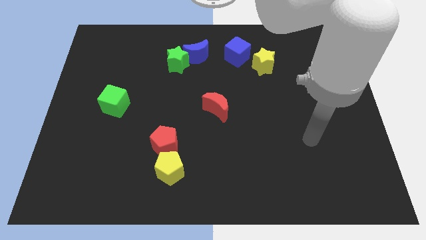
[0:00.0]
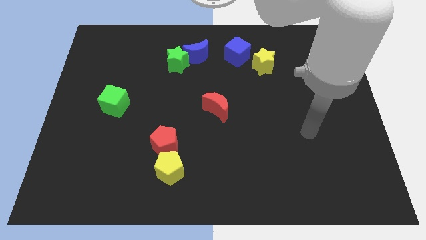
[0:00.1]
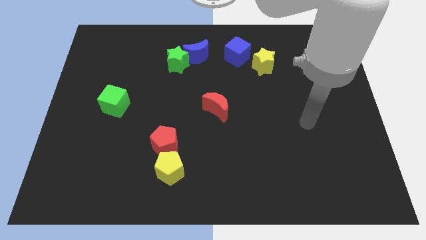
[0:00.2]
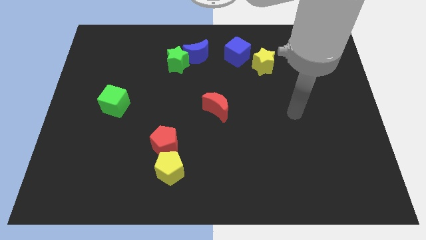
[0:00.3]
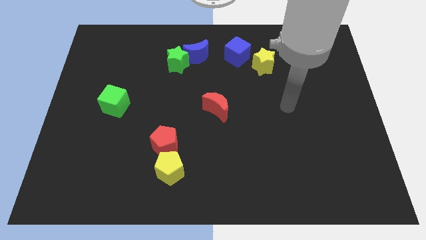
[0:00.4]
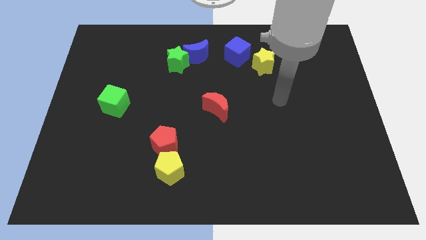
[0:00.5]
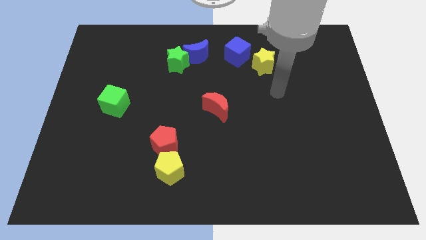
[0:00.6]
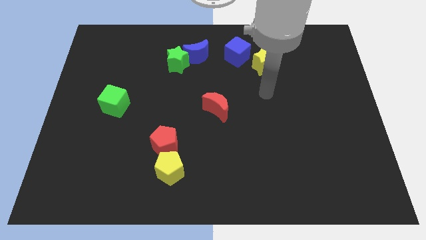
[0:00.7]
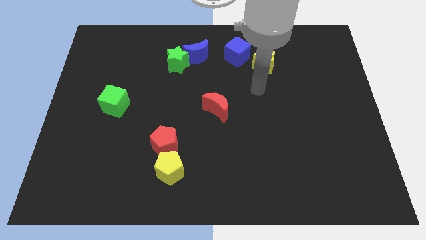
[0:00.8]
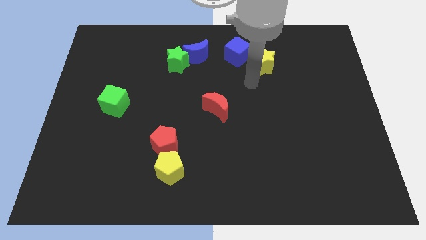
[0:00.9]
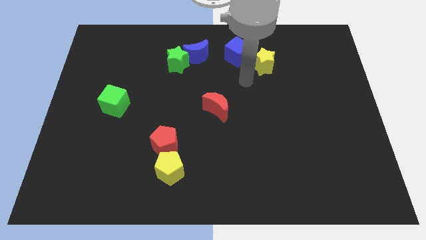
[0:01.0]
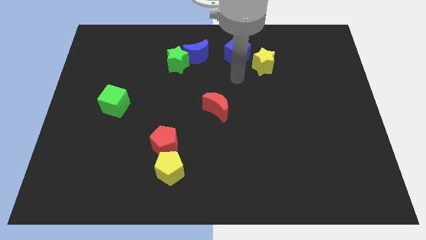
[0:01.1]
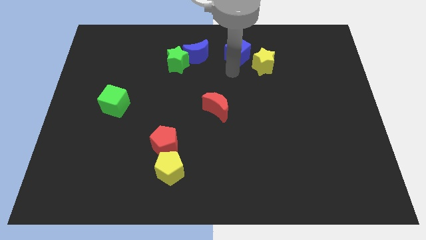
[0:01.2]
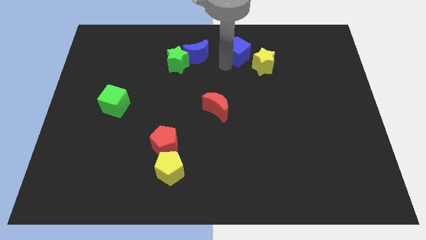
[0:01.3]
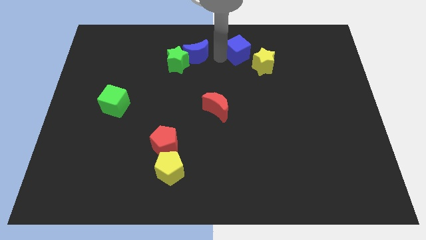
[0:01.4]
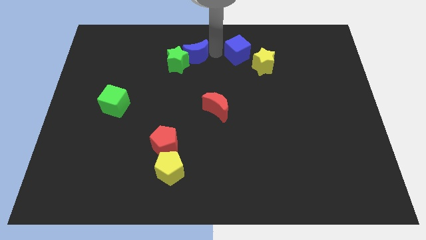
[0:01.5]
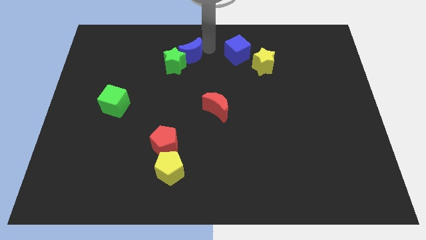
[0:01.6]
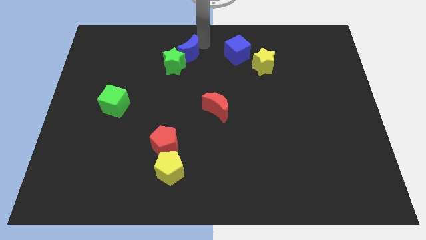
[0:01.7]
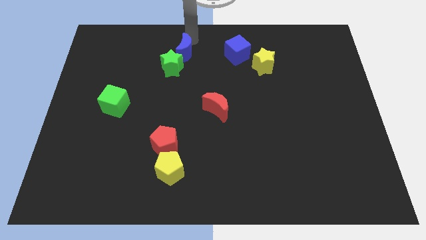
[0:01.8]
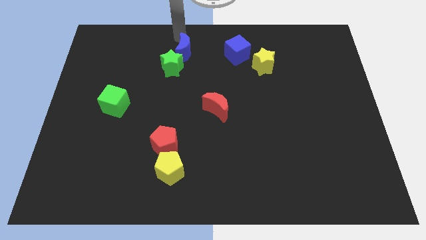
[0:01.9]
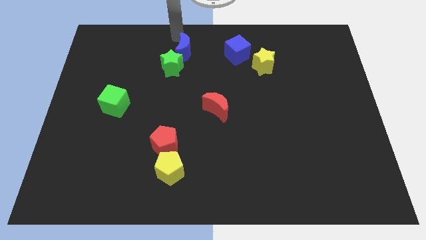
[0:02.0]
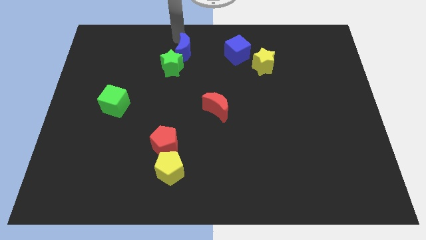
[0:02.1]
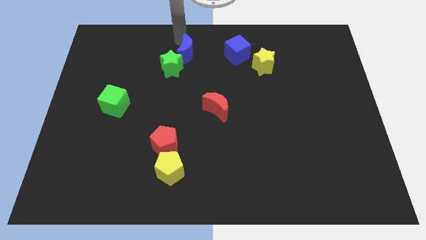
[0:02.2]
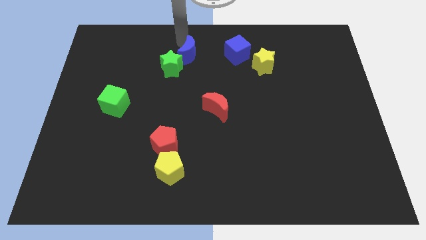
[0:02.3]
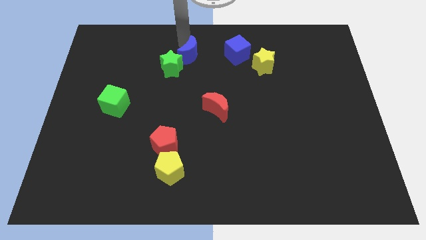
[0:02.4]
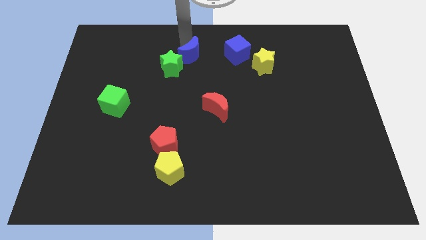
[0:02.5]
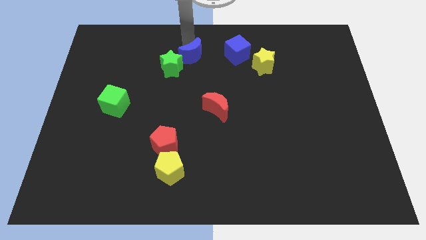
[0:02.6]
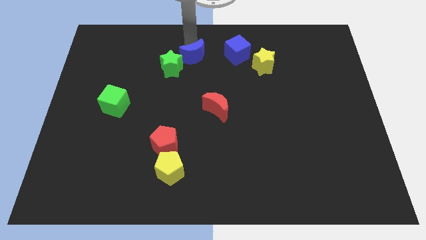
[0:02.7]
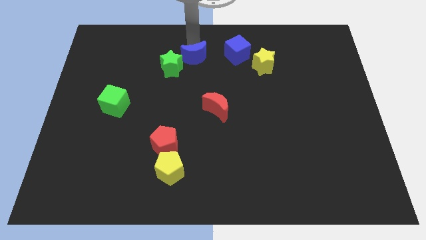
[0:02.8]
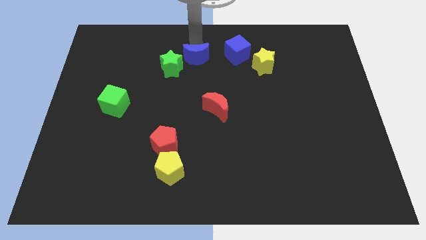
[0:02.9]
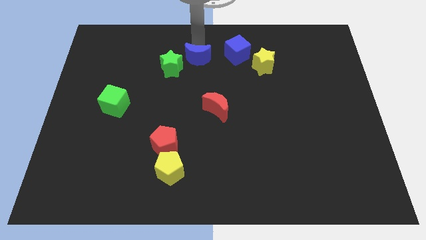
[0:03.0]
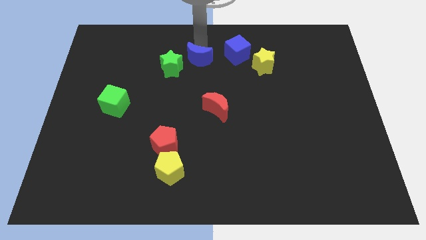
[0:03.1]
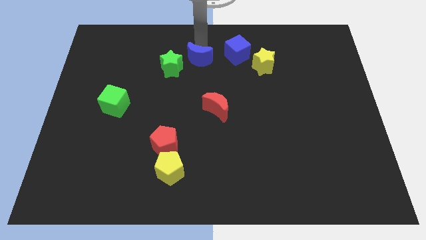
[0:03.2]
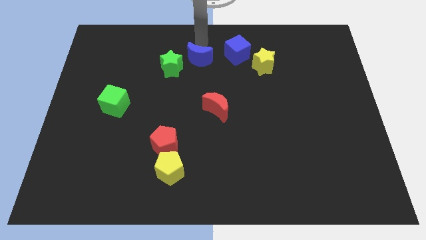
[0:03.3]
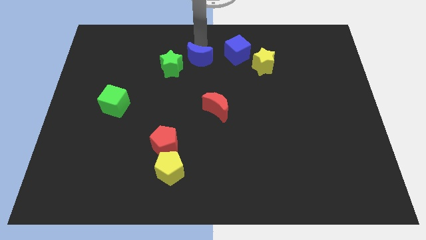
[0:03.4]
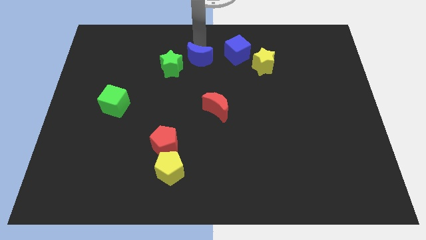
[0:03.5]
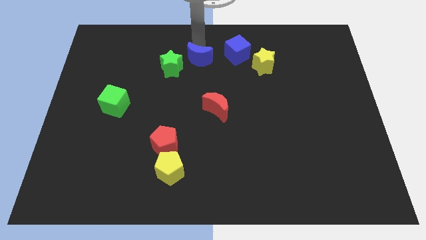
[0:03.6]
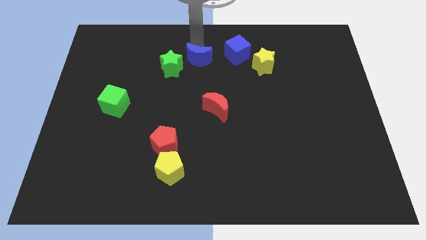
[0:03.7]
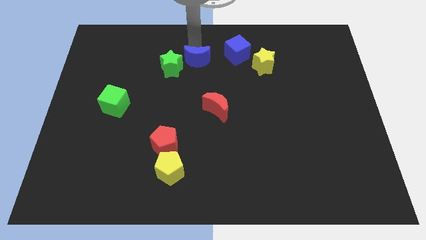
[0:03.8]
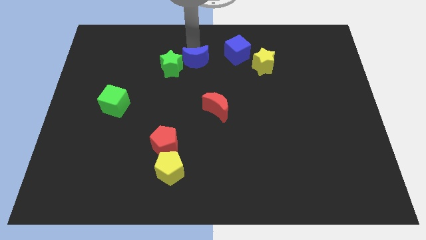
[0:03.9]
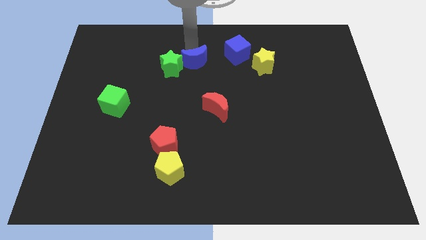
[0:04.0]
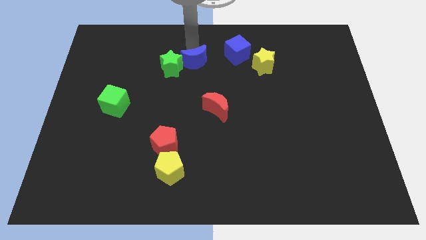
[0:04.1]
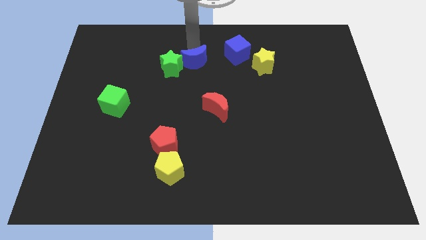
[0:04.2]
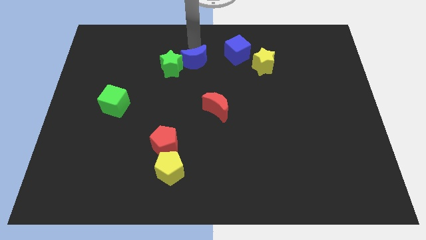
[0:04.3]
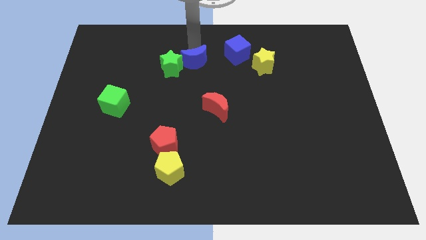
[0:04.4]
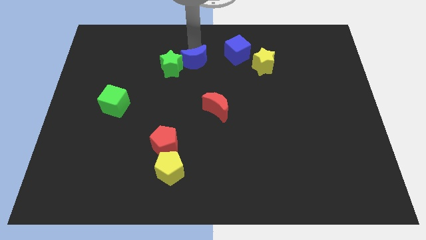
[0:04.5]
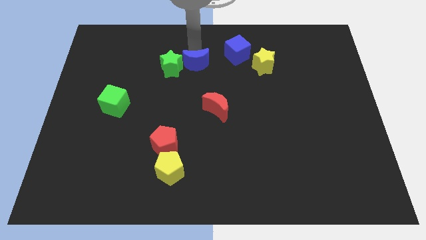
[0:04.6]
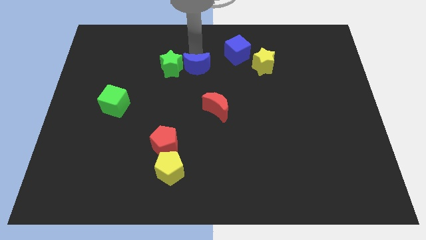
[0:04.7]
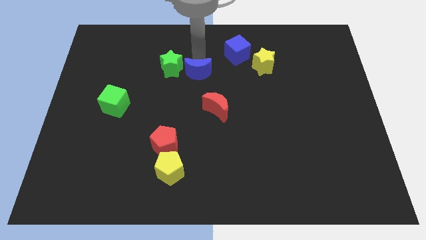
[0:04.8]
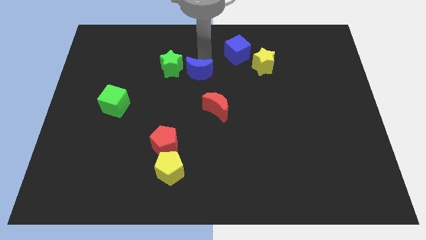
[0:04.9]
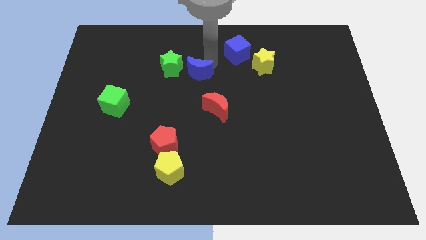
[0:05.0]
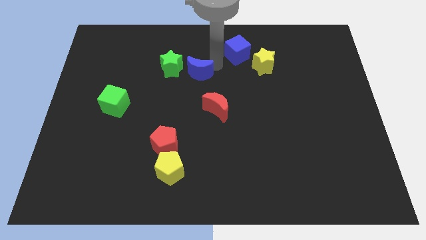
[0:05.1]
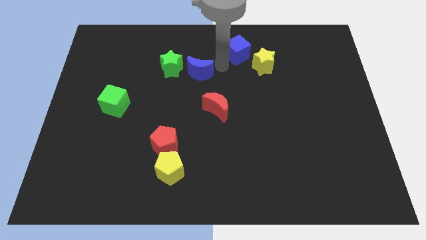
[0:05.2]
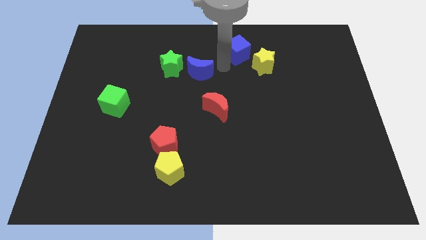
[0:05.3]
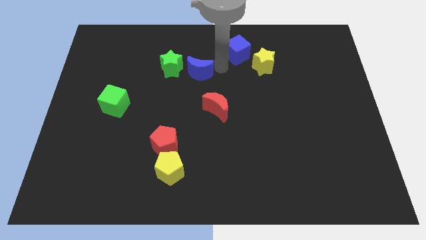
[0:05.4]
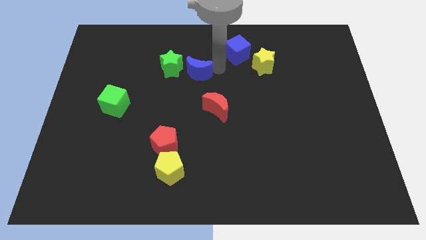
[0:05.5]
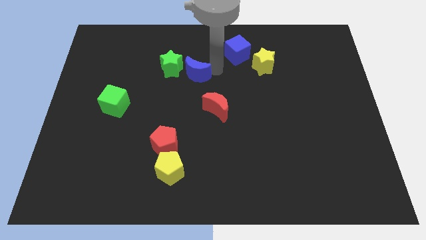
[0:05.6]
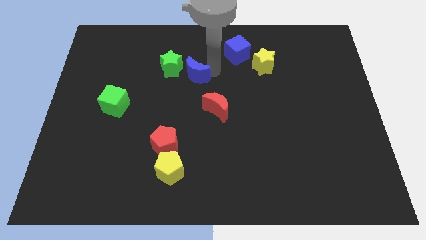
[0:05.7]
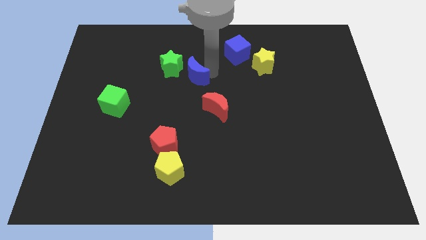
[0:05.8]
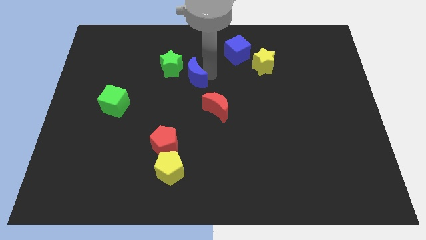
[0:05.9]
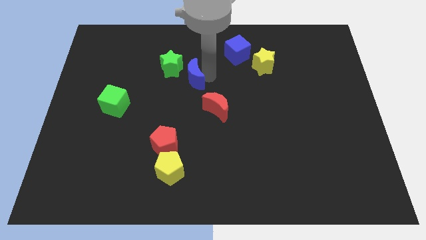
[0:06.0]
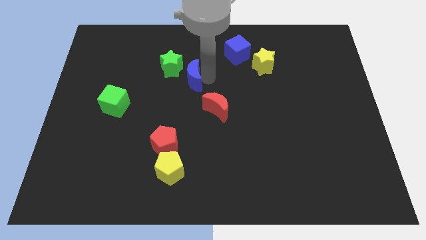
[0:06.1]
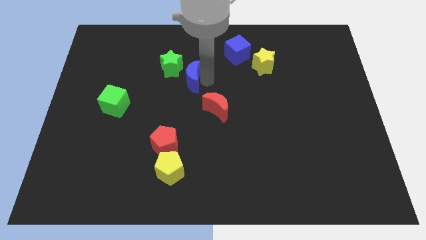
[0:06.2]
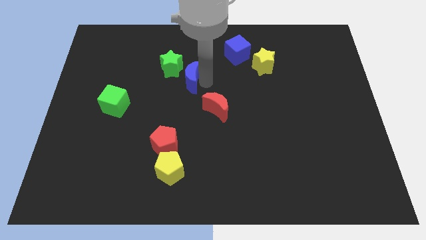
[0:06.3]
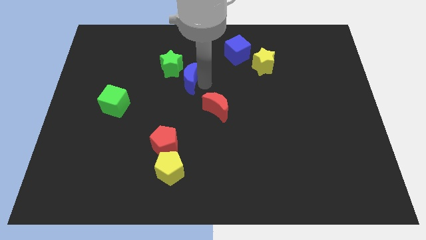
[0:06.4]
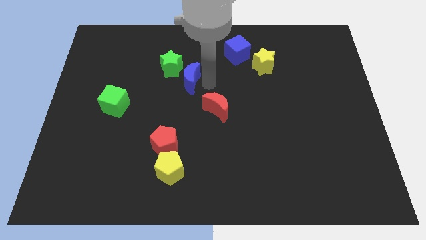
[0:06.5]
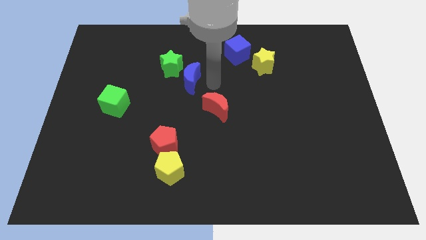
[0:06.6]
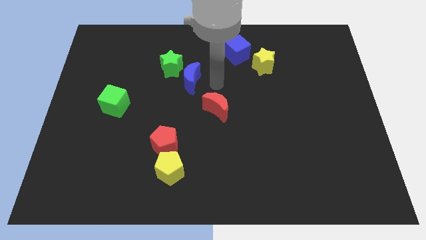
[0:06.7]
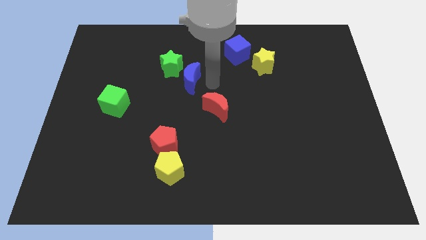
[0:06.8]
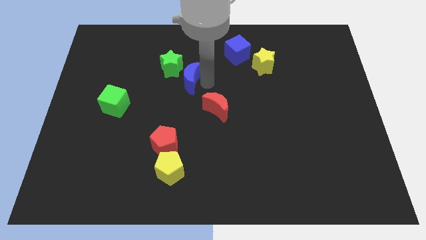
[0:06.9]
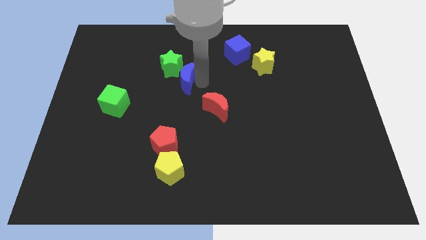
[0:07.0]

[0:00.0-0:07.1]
slide the blue moon a little down and to the left

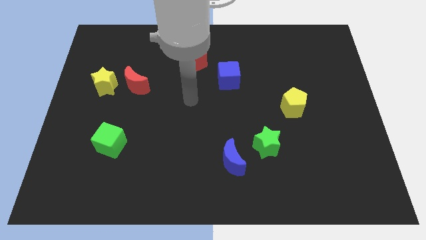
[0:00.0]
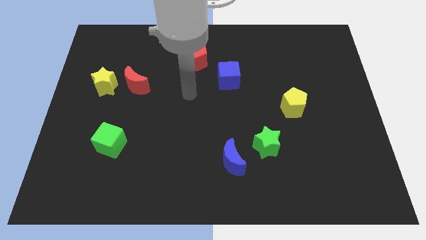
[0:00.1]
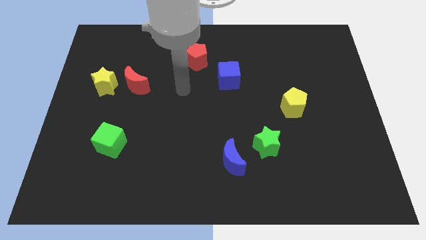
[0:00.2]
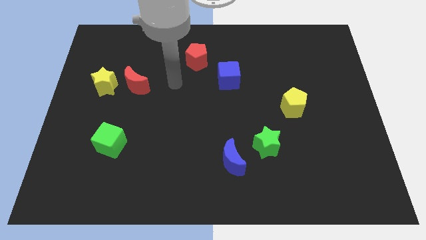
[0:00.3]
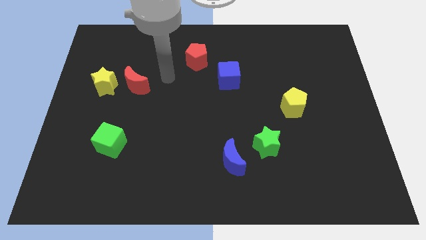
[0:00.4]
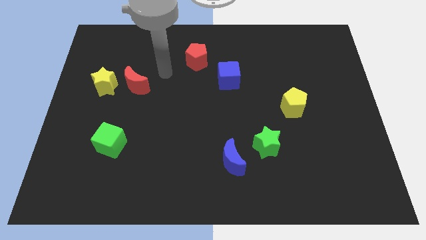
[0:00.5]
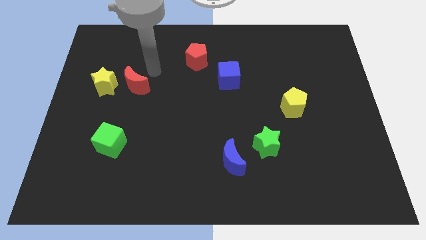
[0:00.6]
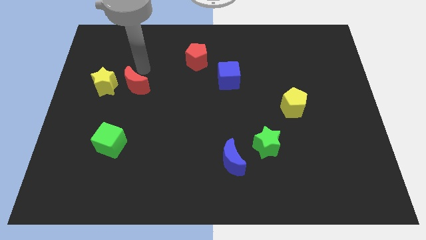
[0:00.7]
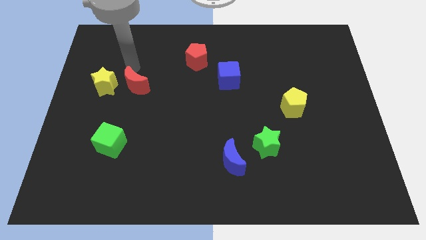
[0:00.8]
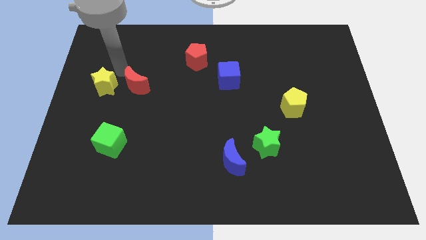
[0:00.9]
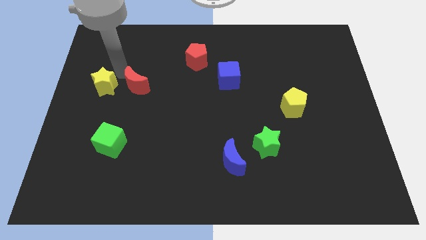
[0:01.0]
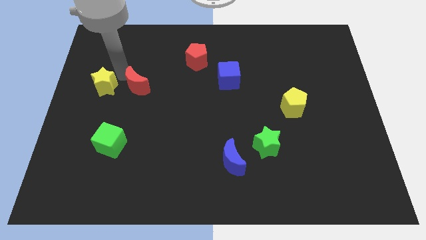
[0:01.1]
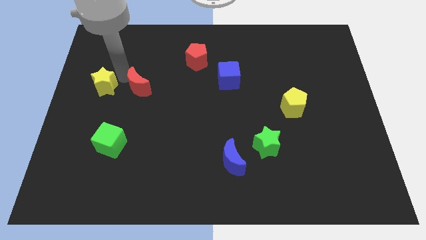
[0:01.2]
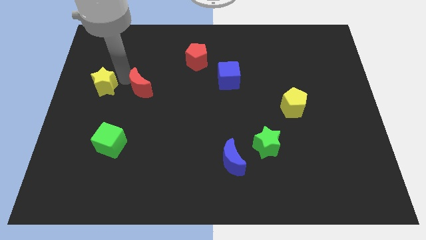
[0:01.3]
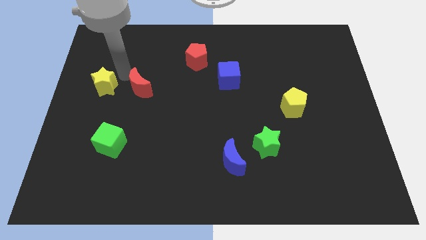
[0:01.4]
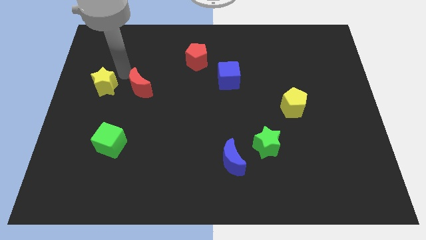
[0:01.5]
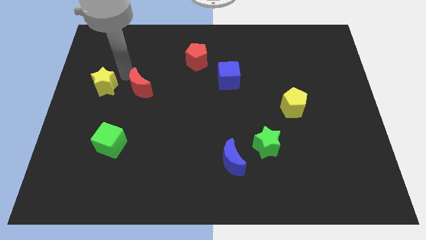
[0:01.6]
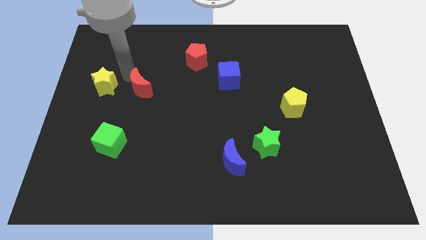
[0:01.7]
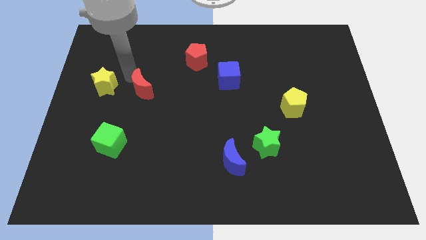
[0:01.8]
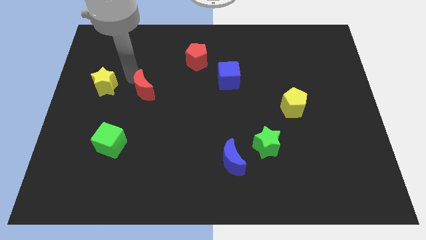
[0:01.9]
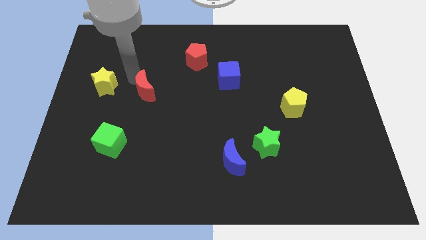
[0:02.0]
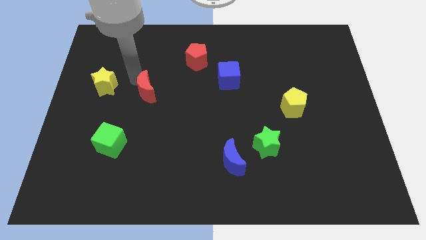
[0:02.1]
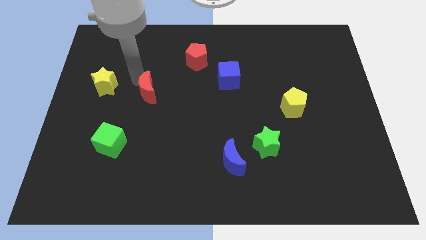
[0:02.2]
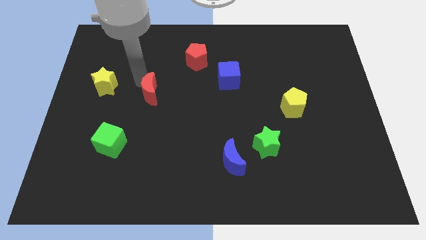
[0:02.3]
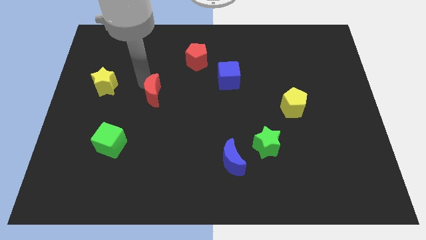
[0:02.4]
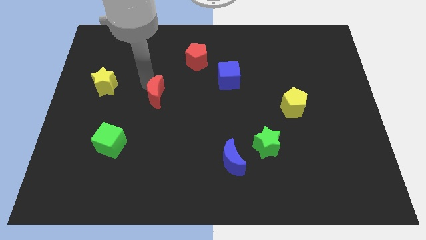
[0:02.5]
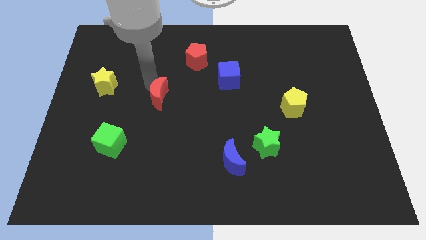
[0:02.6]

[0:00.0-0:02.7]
push the red moon somewhat downwards and right diagonally
